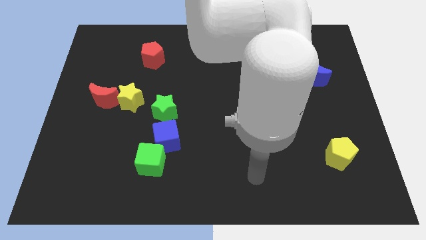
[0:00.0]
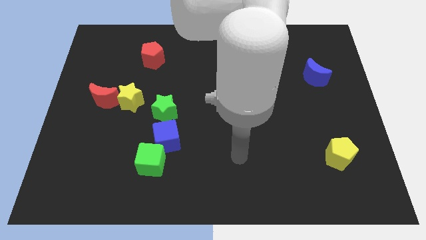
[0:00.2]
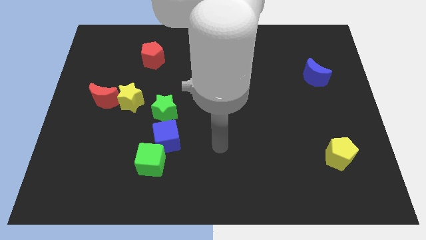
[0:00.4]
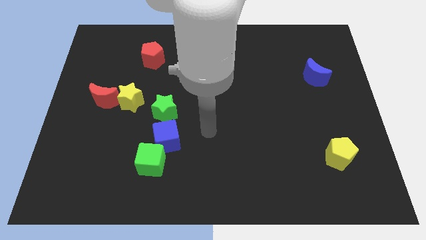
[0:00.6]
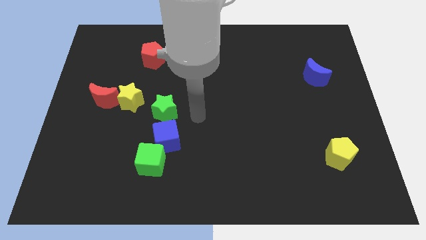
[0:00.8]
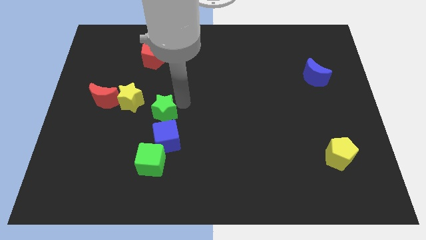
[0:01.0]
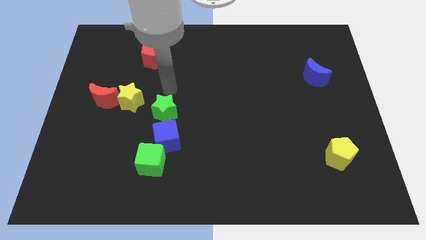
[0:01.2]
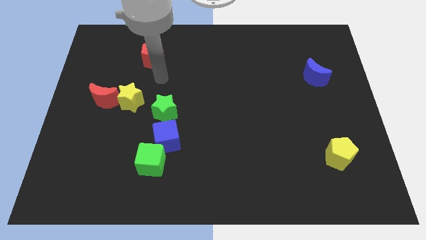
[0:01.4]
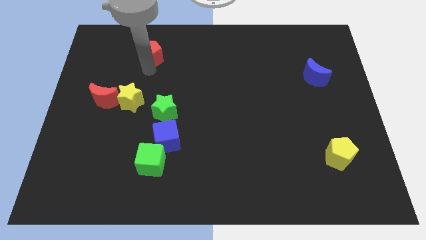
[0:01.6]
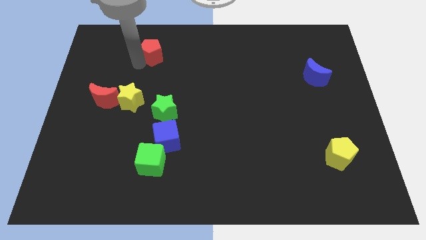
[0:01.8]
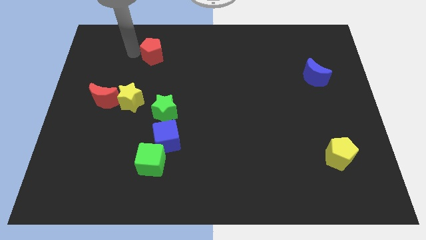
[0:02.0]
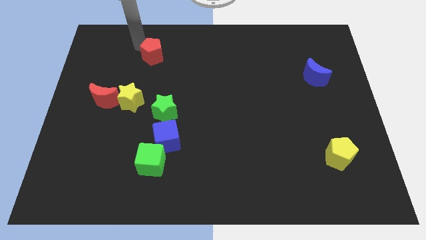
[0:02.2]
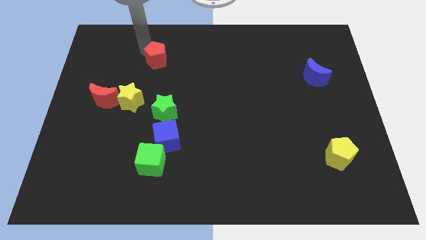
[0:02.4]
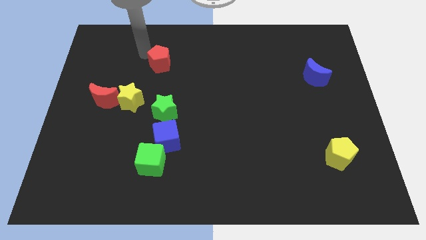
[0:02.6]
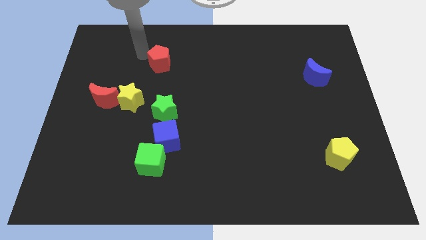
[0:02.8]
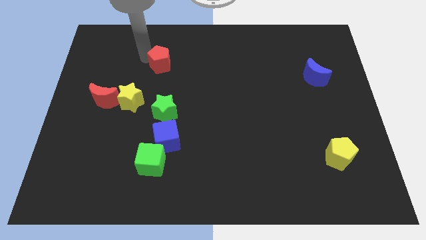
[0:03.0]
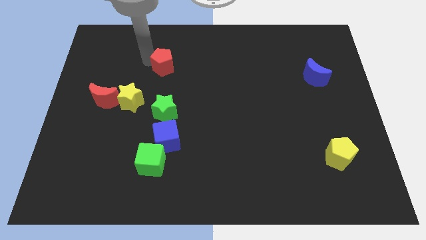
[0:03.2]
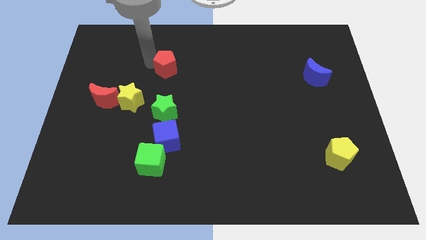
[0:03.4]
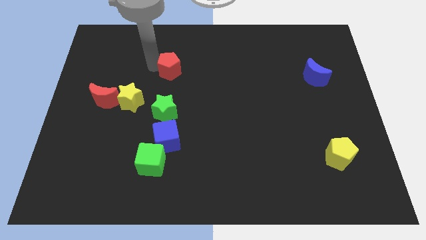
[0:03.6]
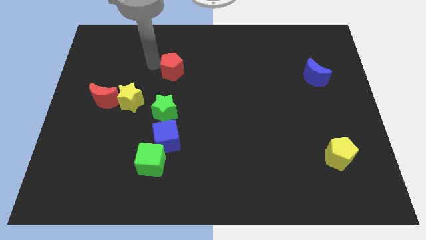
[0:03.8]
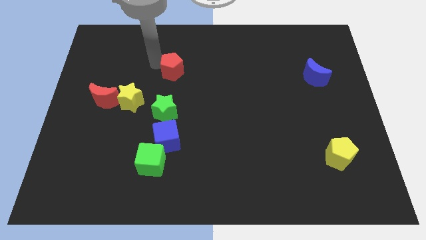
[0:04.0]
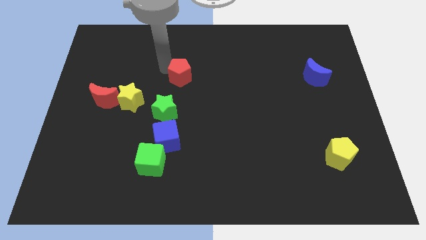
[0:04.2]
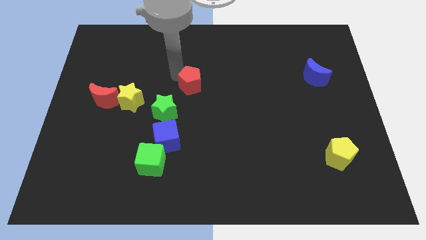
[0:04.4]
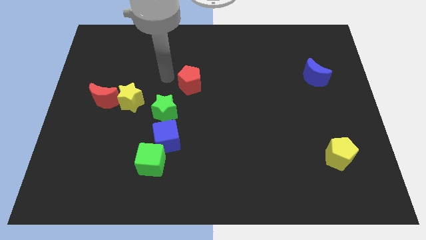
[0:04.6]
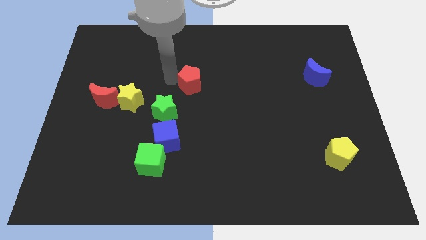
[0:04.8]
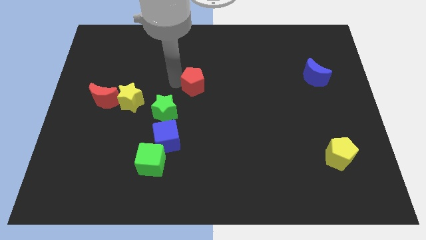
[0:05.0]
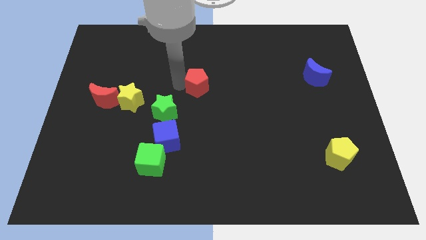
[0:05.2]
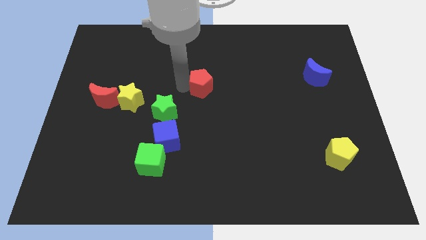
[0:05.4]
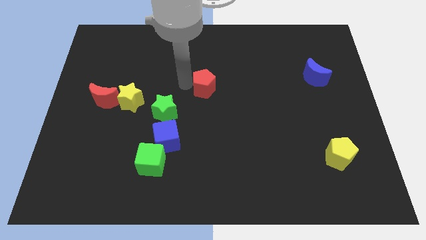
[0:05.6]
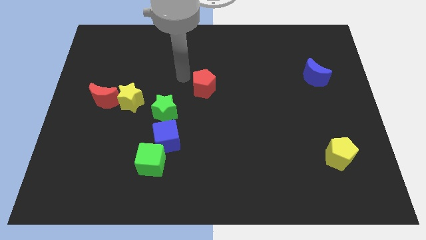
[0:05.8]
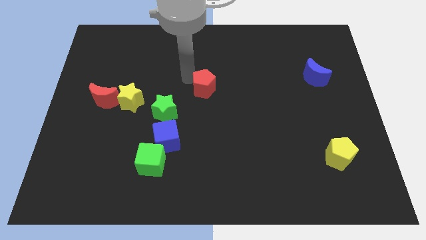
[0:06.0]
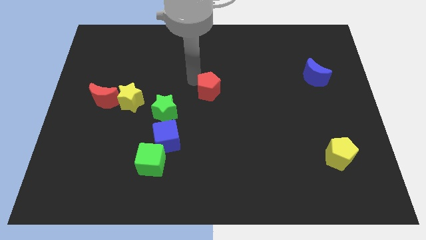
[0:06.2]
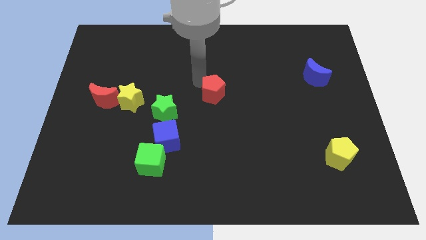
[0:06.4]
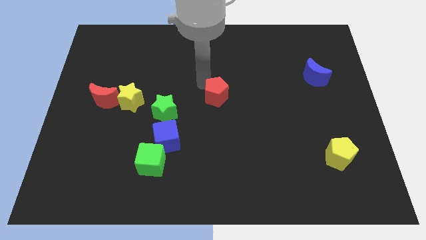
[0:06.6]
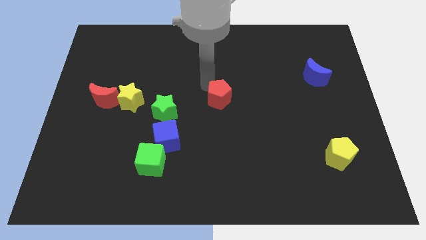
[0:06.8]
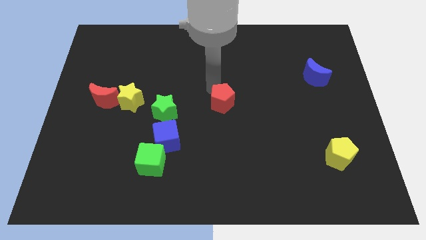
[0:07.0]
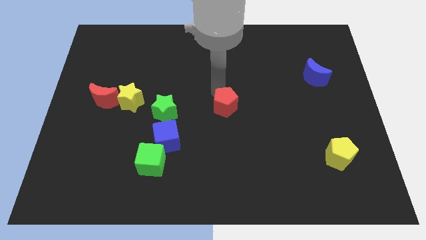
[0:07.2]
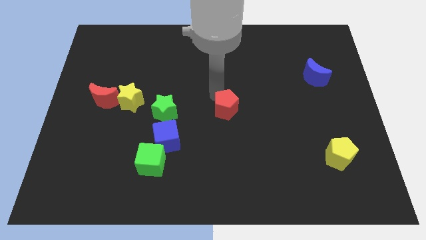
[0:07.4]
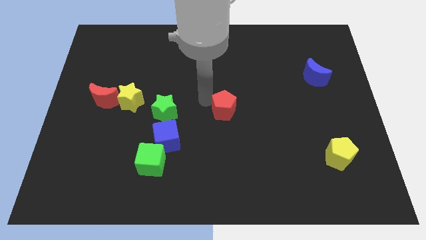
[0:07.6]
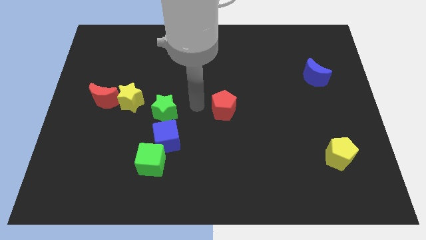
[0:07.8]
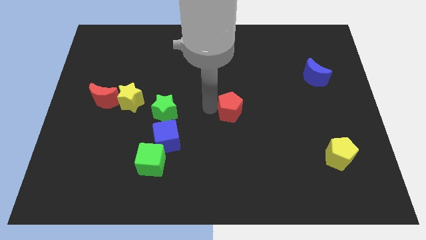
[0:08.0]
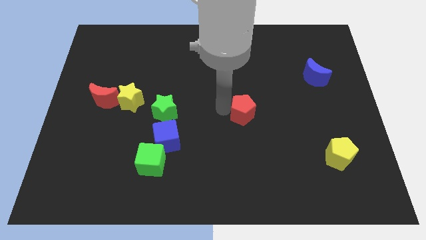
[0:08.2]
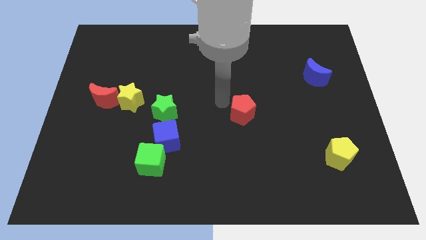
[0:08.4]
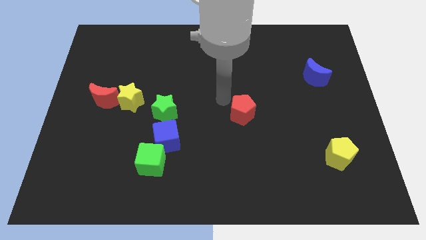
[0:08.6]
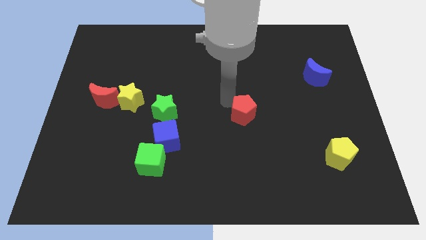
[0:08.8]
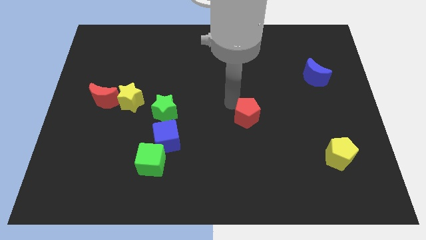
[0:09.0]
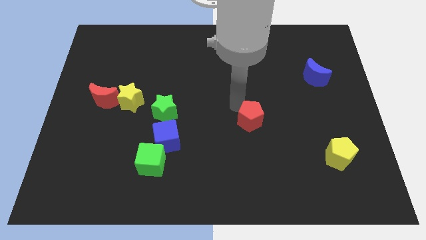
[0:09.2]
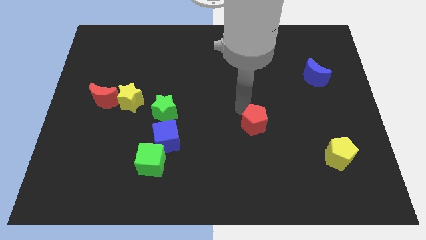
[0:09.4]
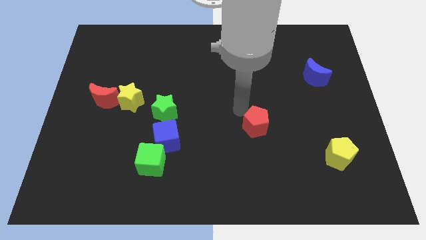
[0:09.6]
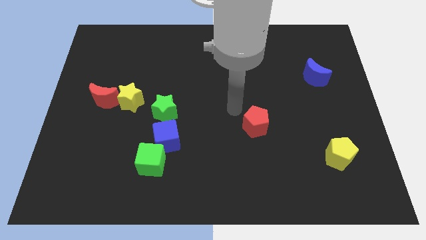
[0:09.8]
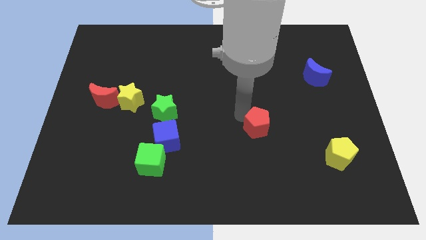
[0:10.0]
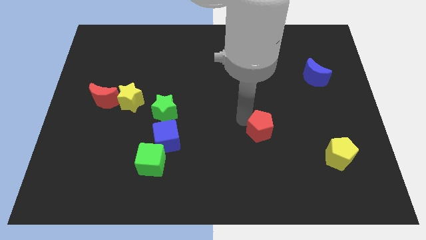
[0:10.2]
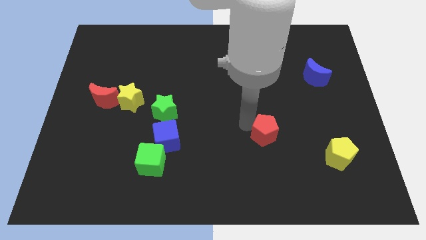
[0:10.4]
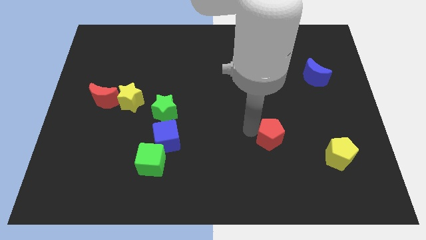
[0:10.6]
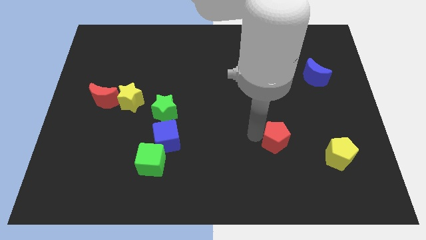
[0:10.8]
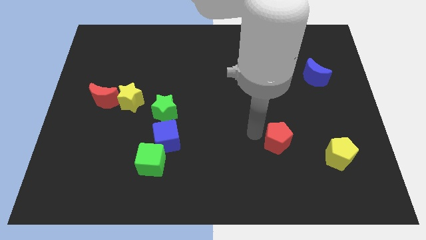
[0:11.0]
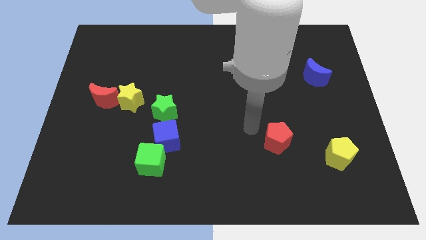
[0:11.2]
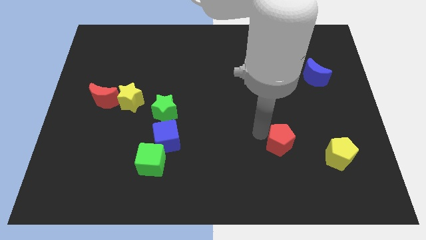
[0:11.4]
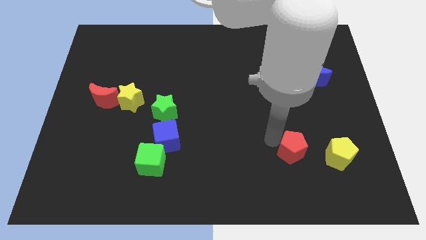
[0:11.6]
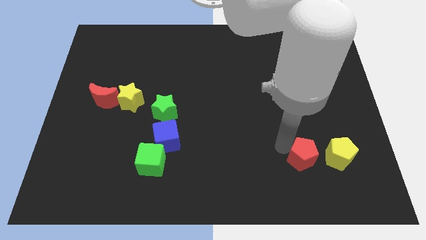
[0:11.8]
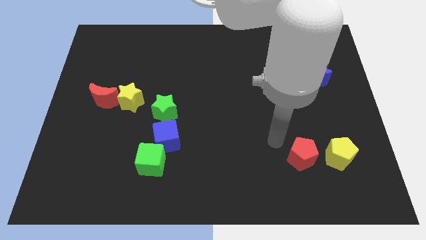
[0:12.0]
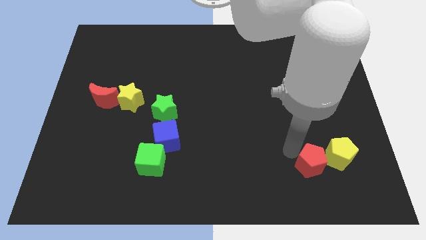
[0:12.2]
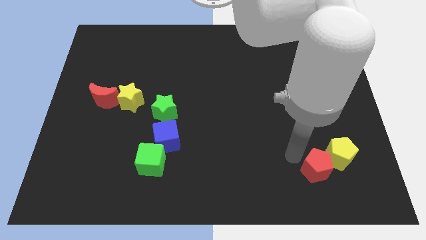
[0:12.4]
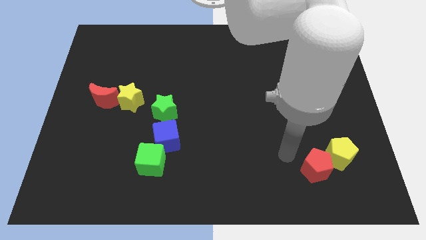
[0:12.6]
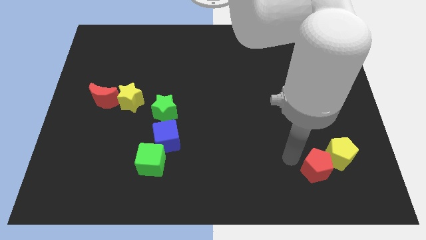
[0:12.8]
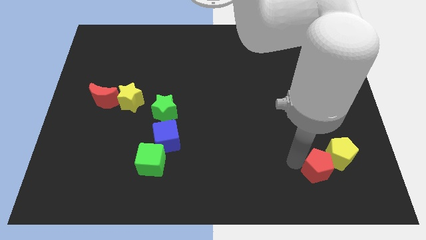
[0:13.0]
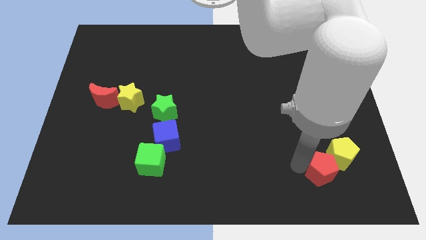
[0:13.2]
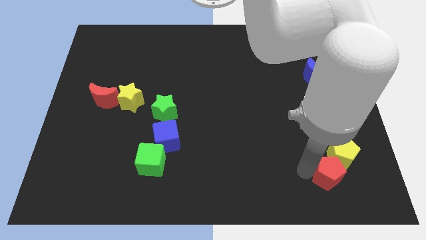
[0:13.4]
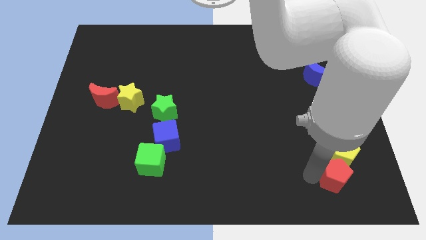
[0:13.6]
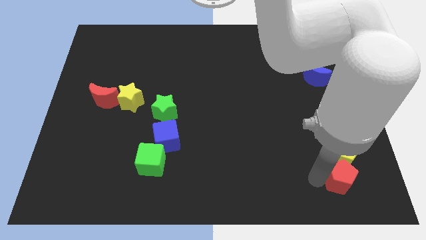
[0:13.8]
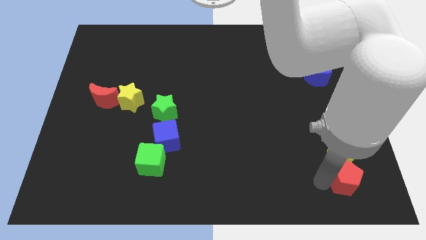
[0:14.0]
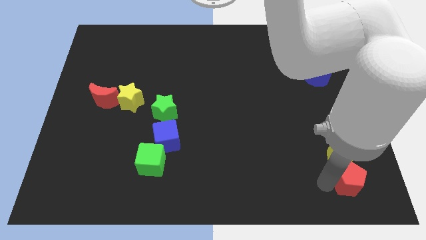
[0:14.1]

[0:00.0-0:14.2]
push the red pentagon to the bottom right
